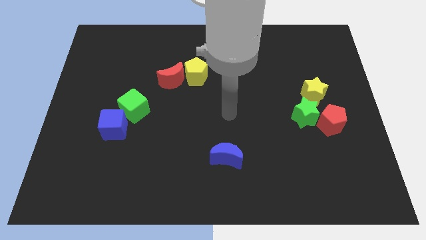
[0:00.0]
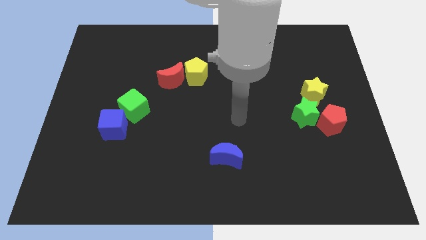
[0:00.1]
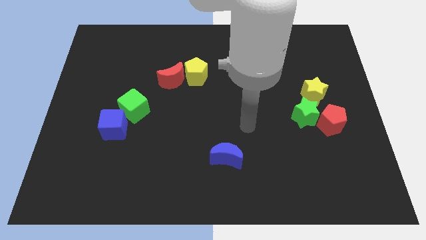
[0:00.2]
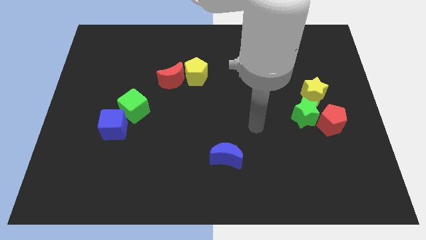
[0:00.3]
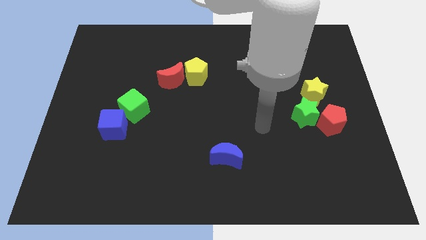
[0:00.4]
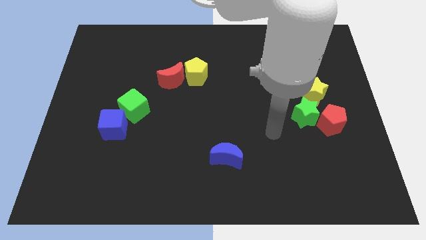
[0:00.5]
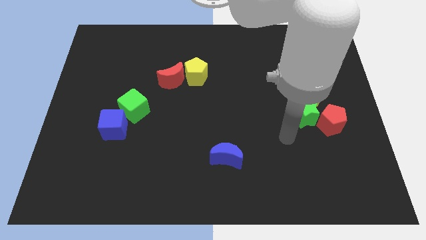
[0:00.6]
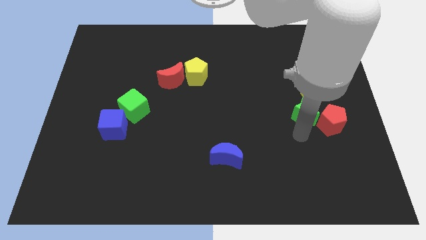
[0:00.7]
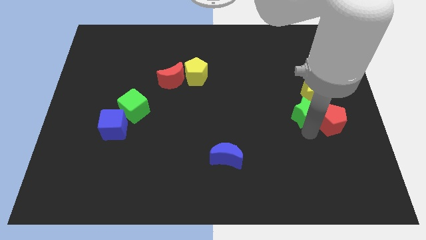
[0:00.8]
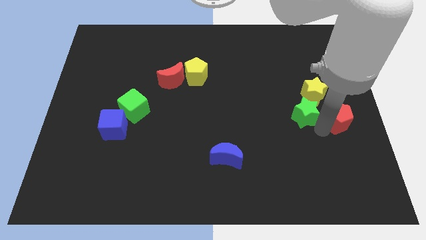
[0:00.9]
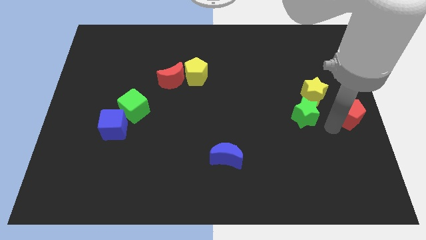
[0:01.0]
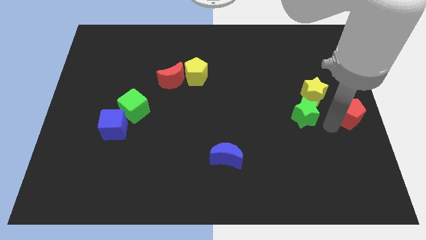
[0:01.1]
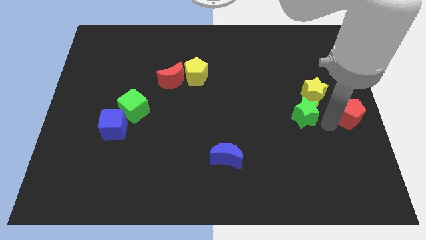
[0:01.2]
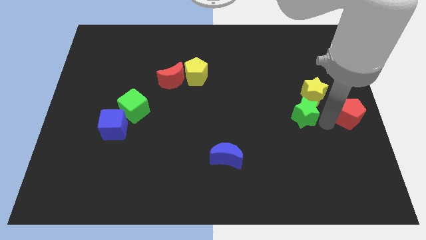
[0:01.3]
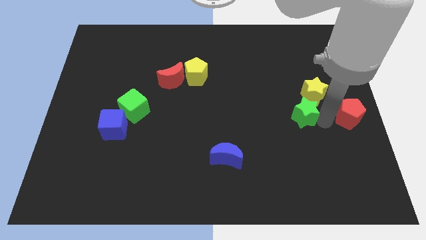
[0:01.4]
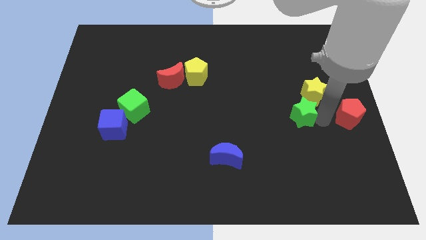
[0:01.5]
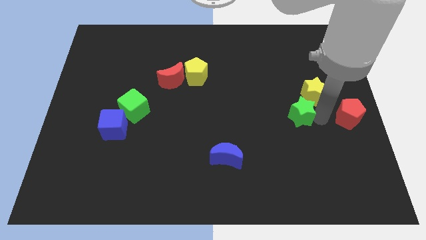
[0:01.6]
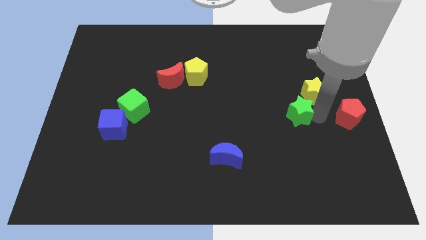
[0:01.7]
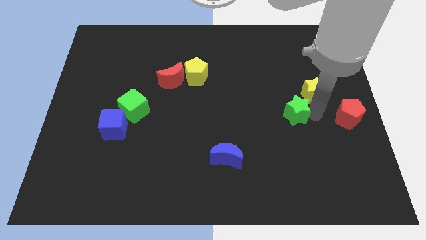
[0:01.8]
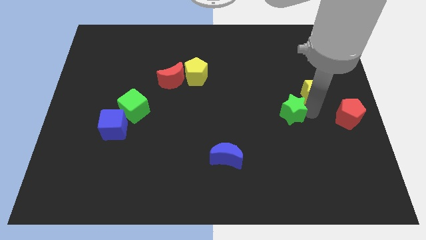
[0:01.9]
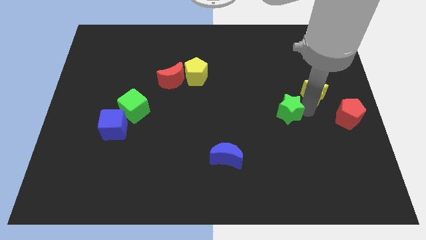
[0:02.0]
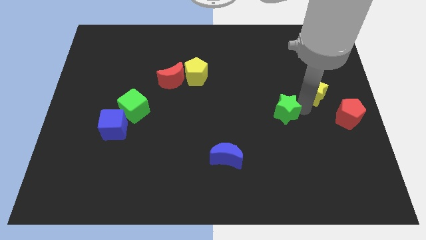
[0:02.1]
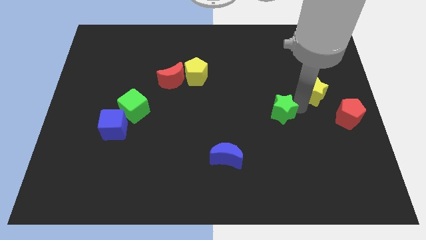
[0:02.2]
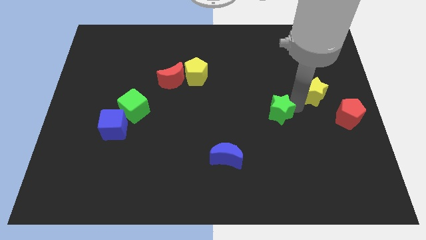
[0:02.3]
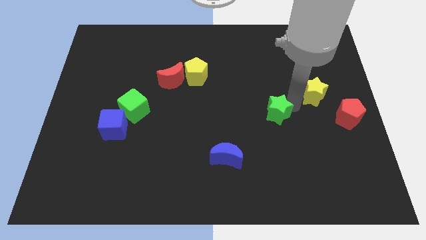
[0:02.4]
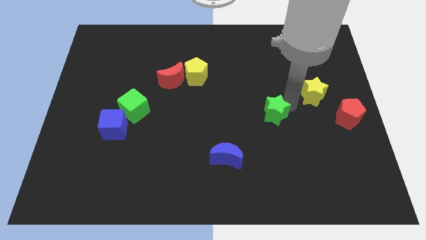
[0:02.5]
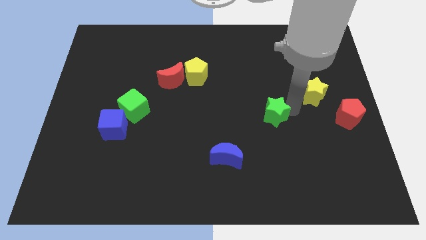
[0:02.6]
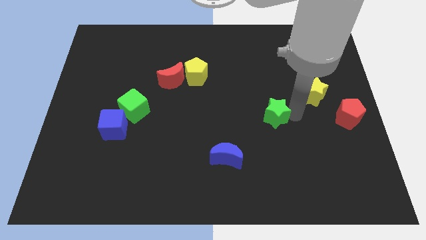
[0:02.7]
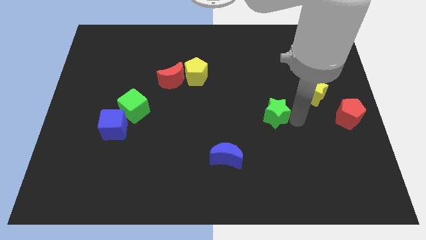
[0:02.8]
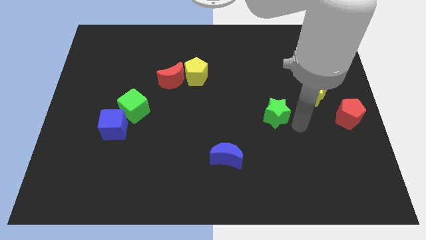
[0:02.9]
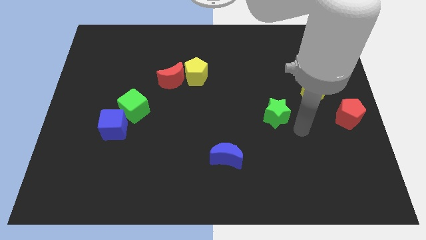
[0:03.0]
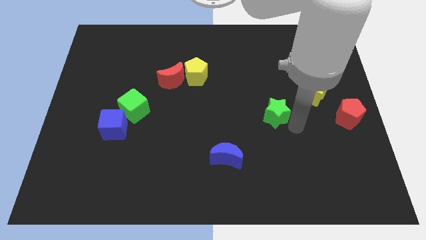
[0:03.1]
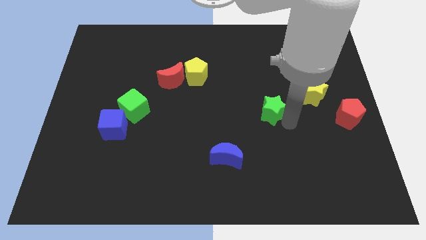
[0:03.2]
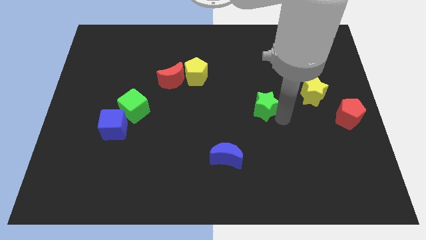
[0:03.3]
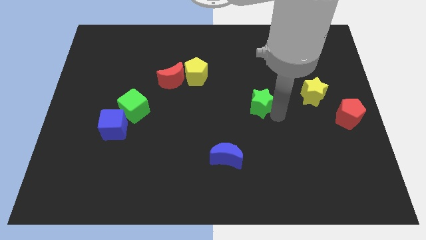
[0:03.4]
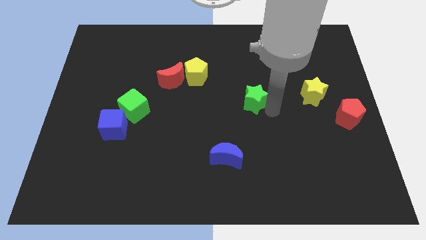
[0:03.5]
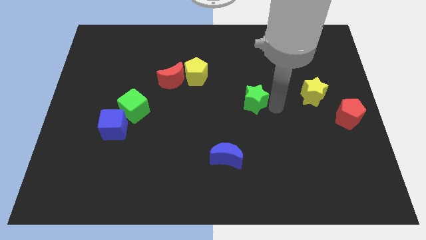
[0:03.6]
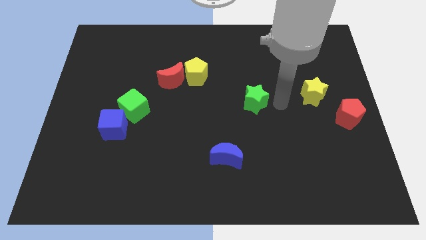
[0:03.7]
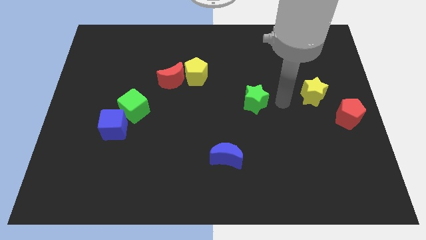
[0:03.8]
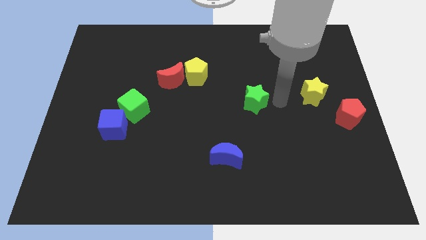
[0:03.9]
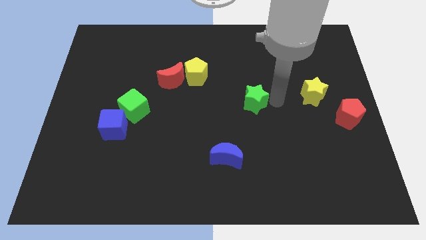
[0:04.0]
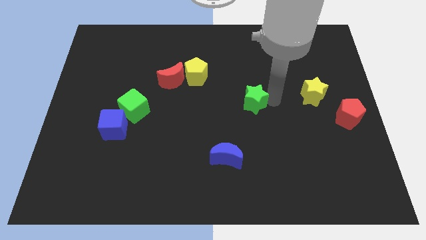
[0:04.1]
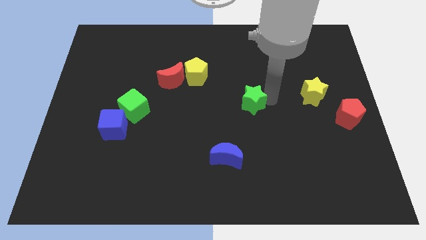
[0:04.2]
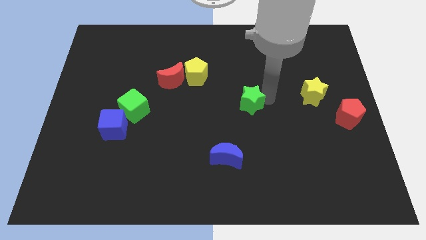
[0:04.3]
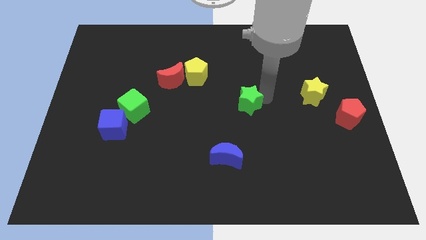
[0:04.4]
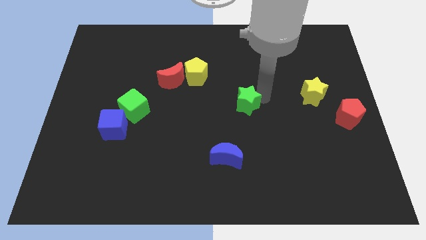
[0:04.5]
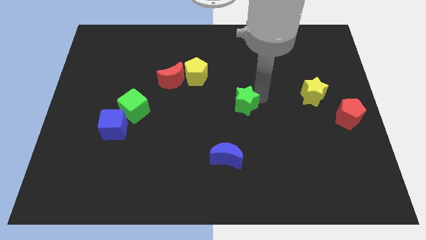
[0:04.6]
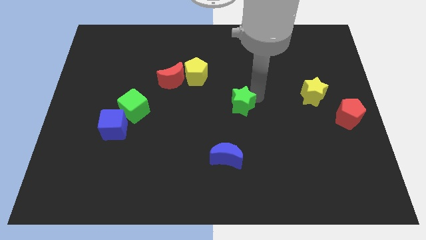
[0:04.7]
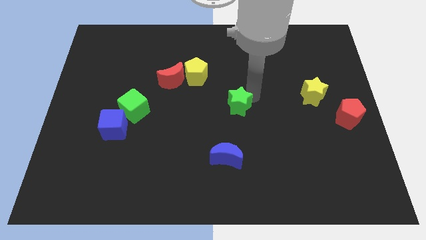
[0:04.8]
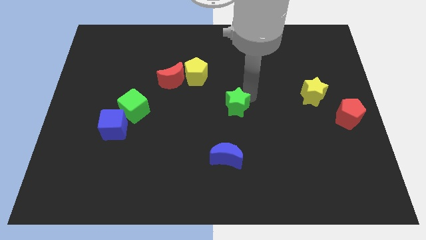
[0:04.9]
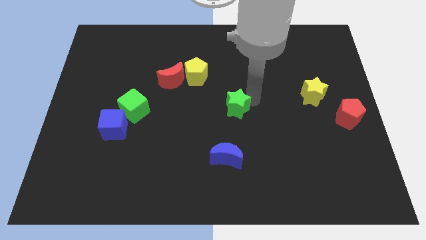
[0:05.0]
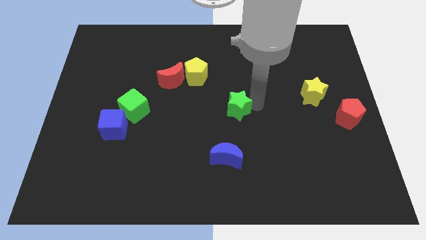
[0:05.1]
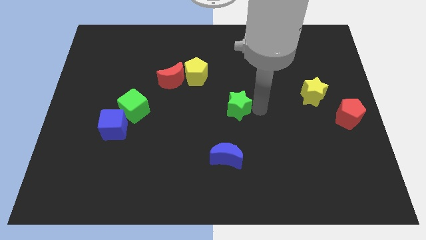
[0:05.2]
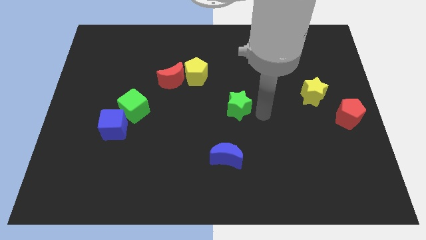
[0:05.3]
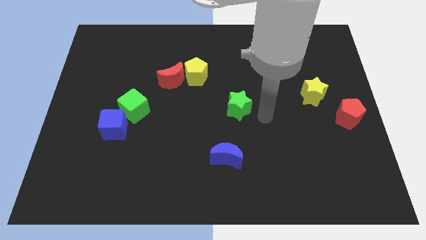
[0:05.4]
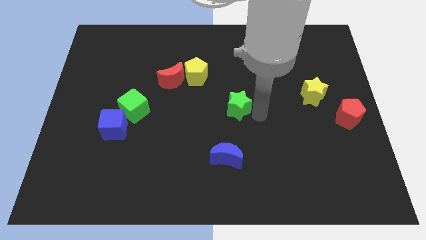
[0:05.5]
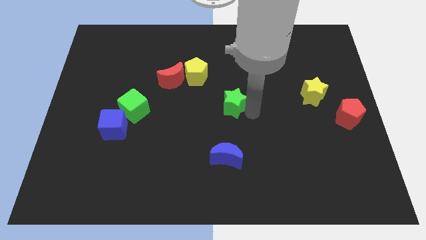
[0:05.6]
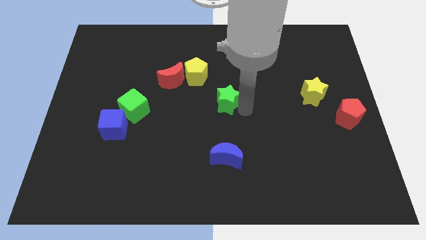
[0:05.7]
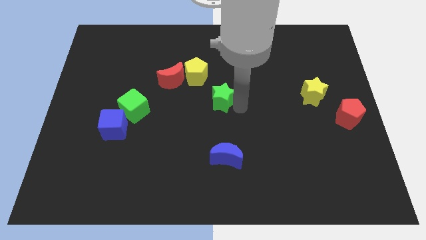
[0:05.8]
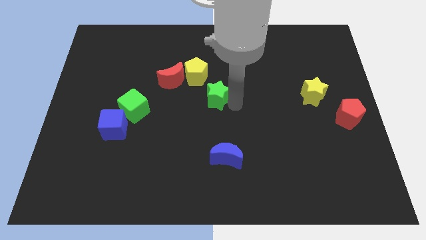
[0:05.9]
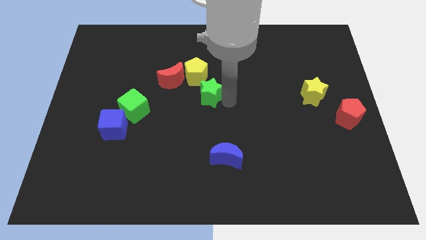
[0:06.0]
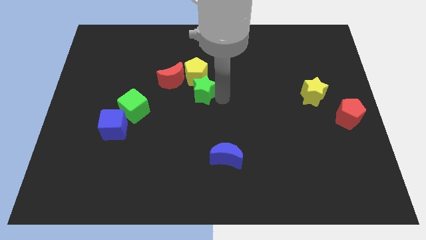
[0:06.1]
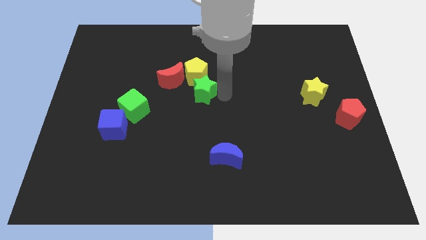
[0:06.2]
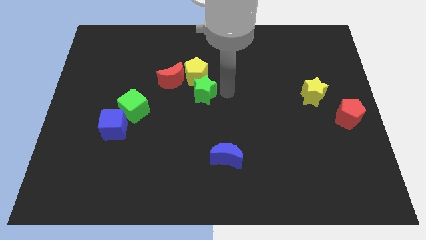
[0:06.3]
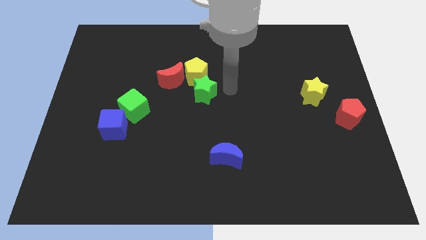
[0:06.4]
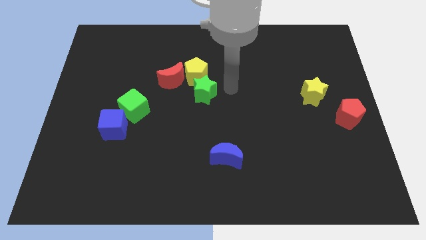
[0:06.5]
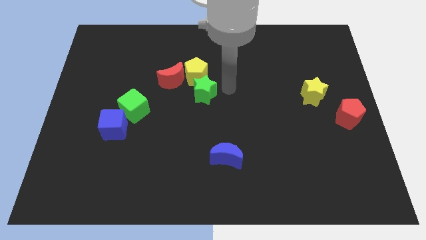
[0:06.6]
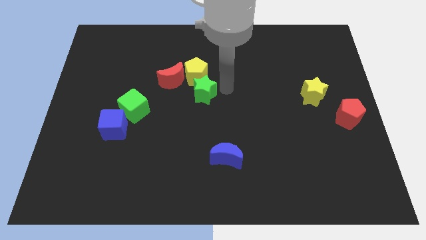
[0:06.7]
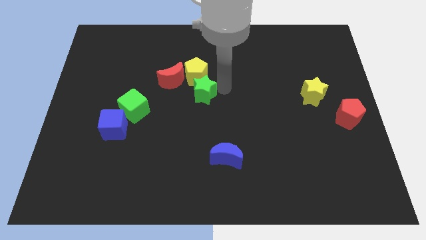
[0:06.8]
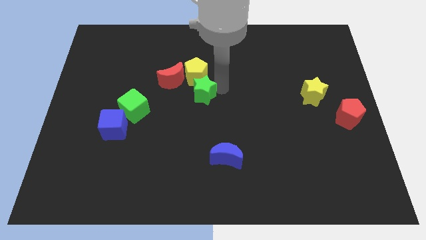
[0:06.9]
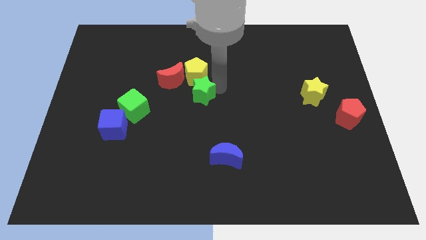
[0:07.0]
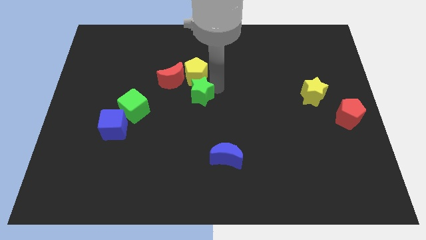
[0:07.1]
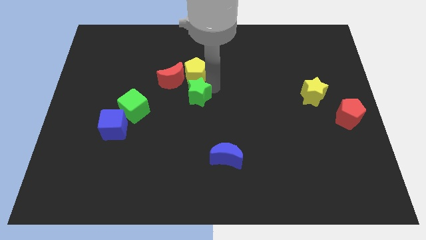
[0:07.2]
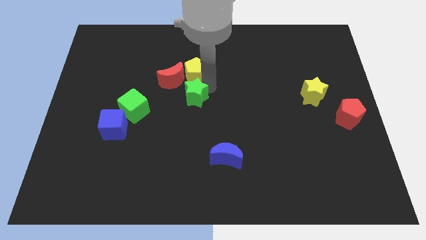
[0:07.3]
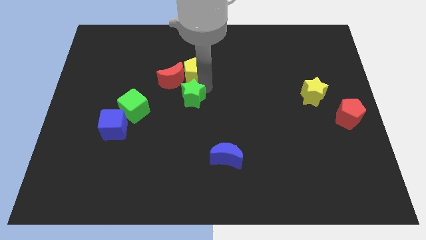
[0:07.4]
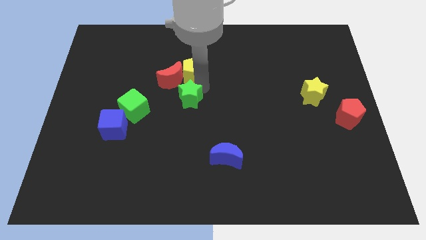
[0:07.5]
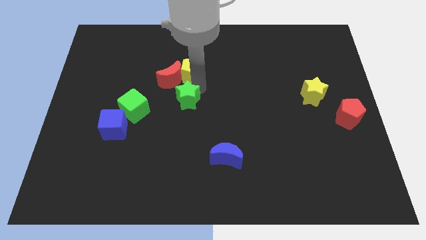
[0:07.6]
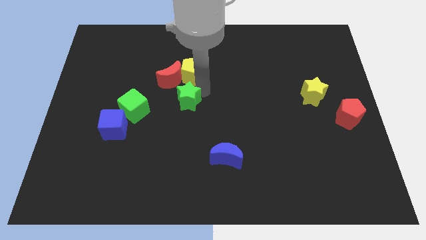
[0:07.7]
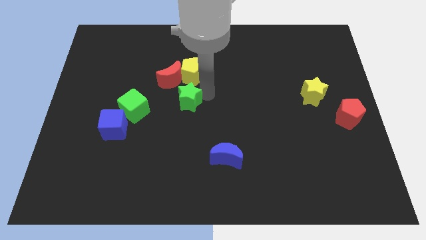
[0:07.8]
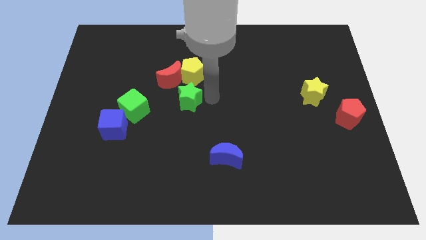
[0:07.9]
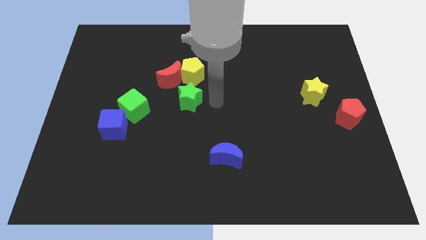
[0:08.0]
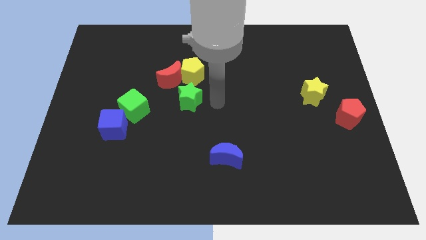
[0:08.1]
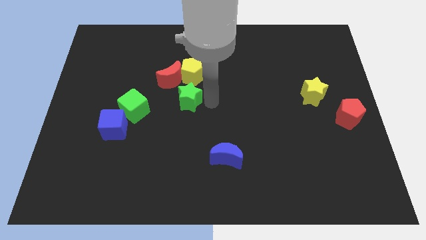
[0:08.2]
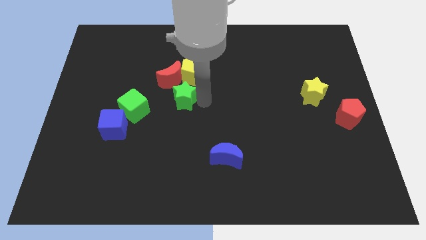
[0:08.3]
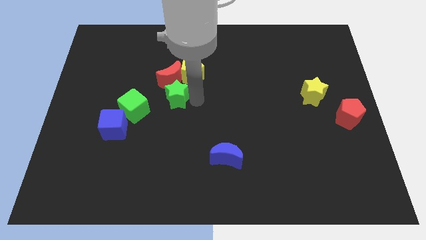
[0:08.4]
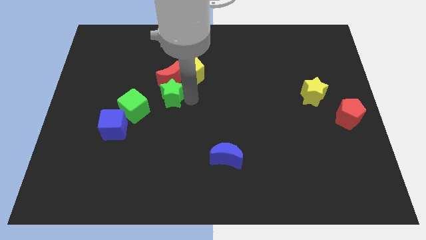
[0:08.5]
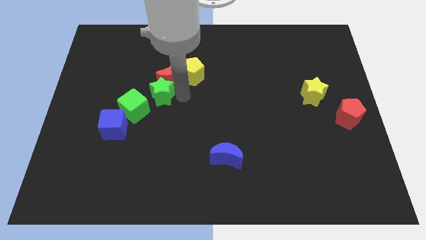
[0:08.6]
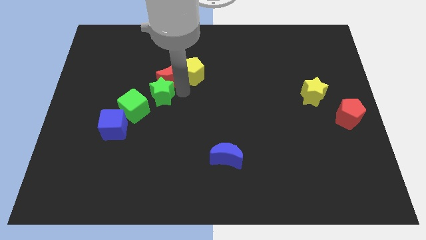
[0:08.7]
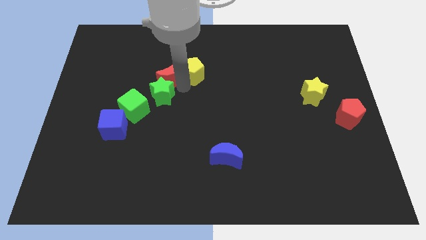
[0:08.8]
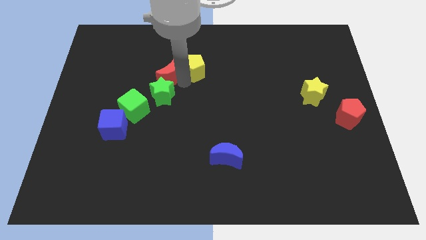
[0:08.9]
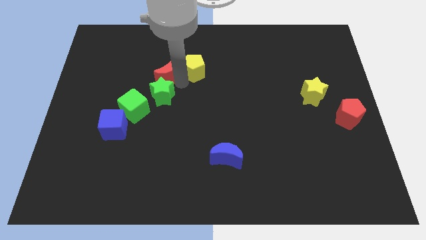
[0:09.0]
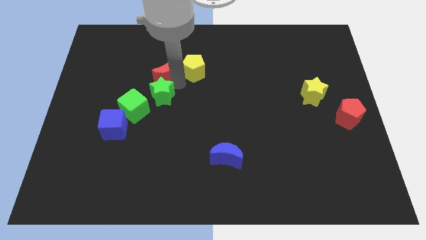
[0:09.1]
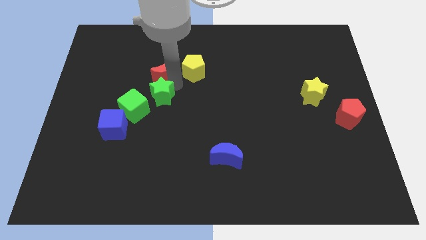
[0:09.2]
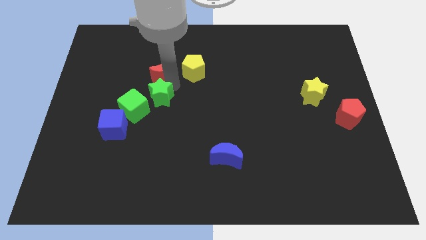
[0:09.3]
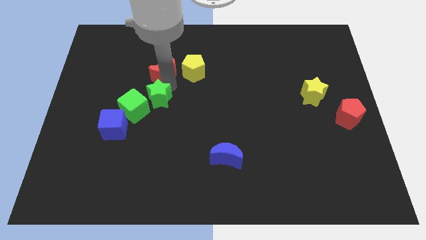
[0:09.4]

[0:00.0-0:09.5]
slide the green star to the top right of the blue cube
